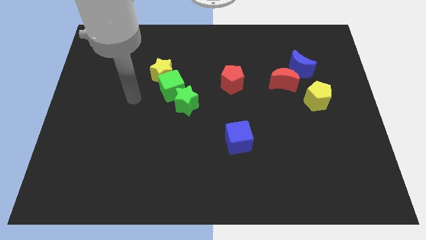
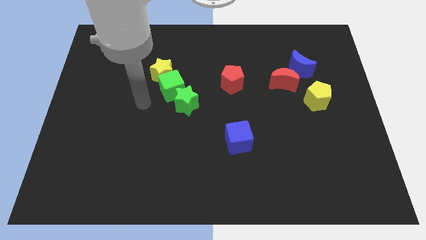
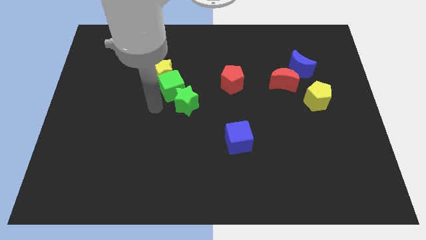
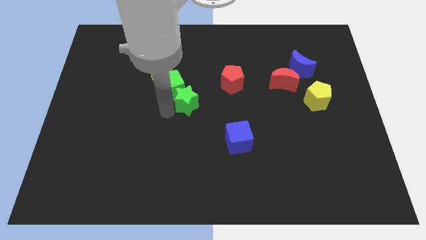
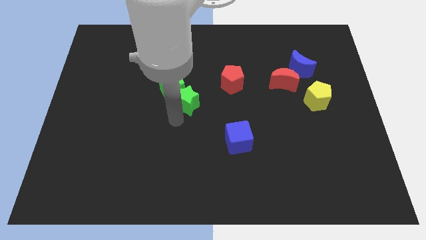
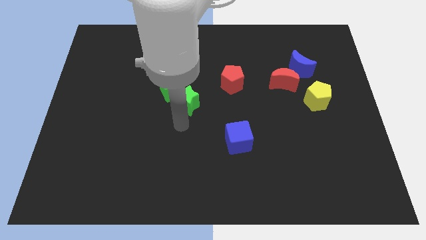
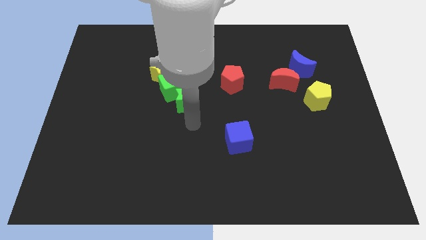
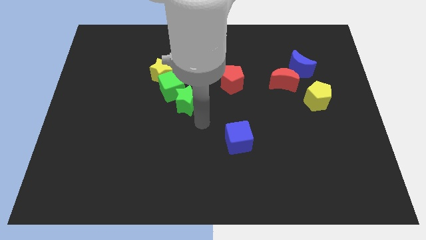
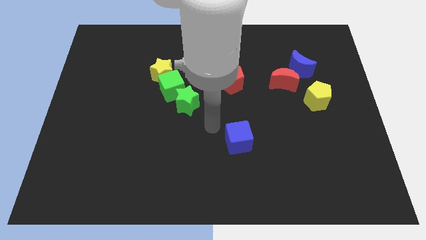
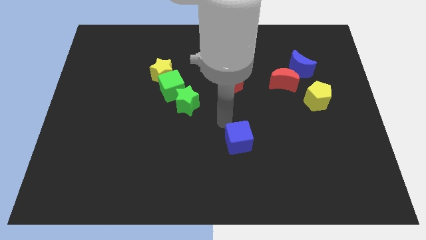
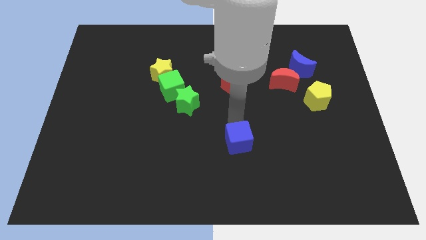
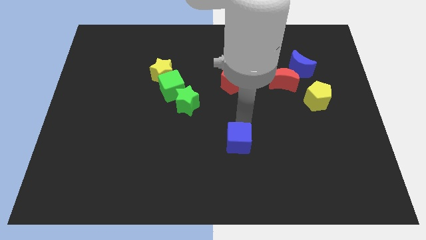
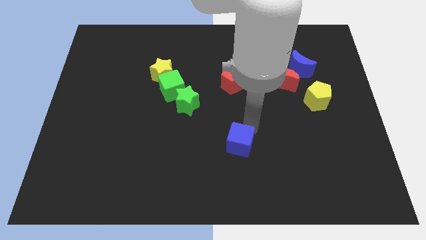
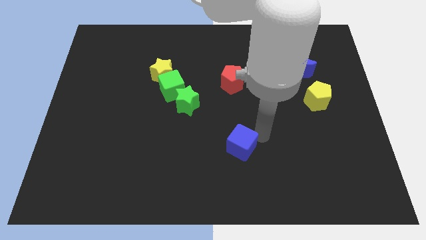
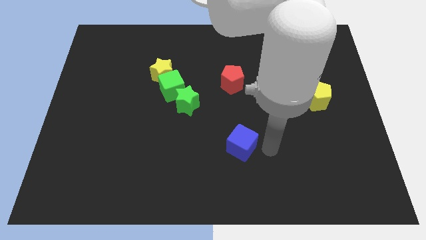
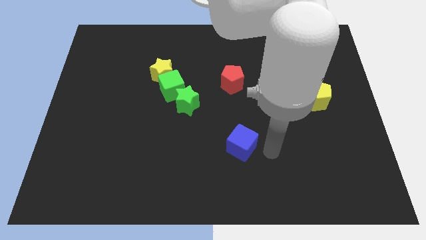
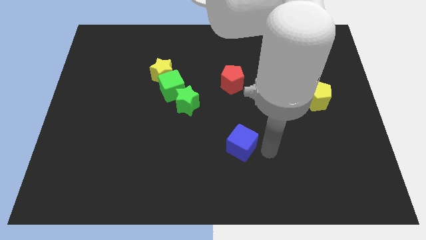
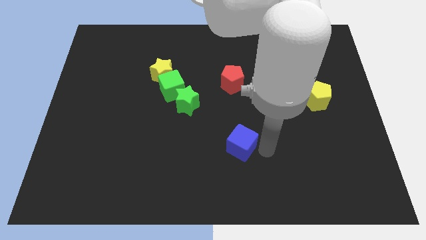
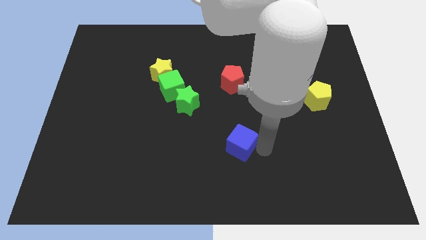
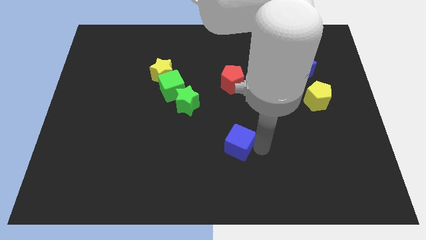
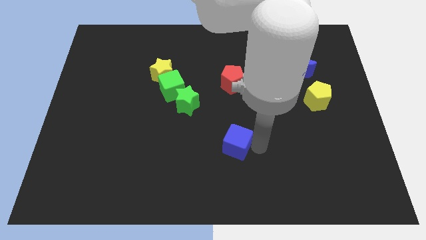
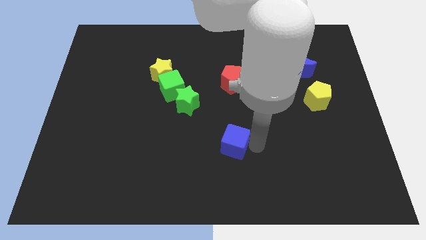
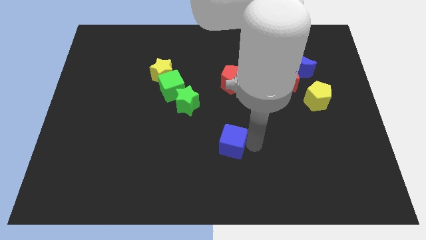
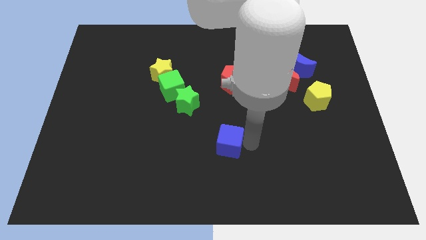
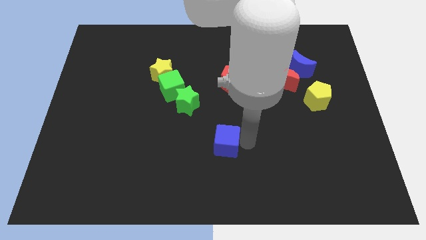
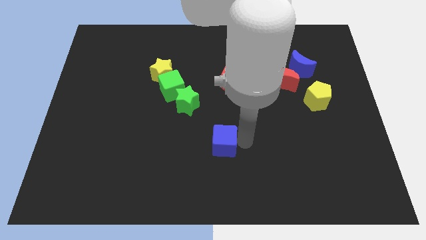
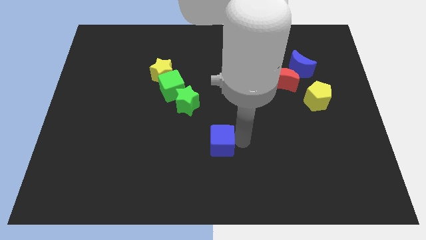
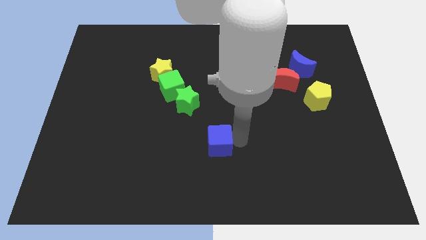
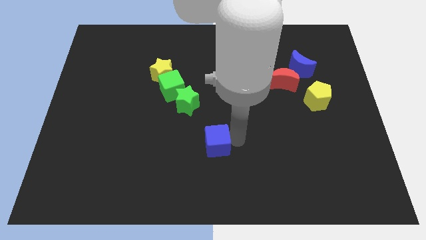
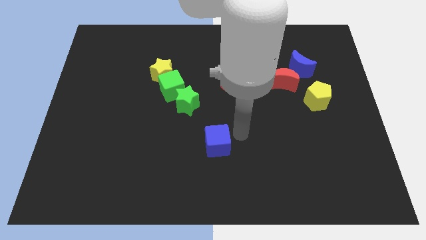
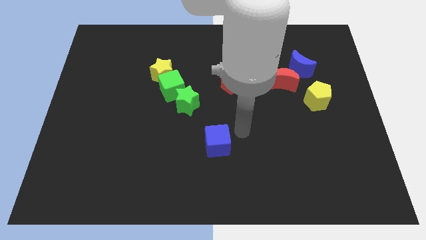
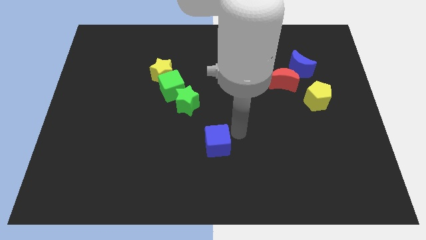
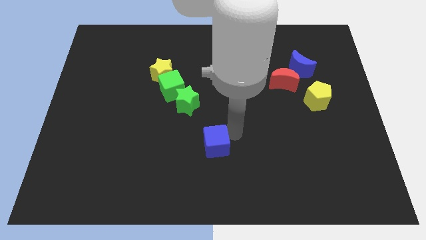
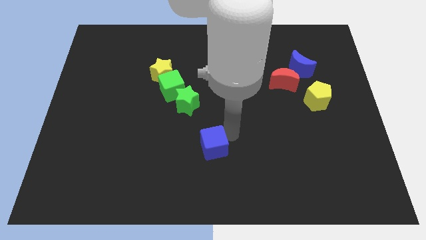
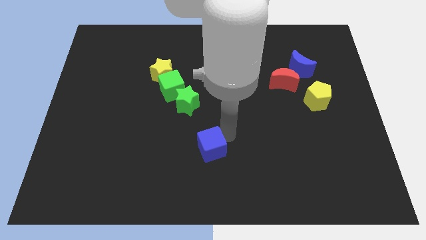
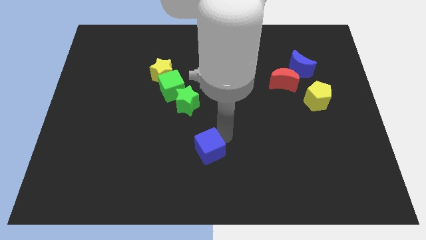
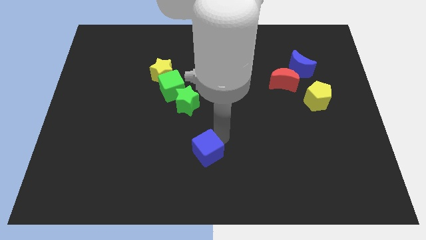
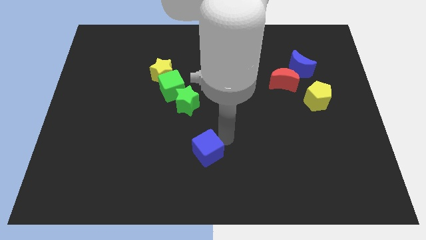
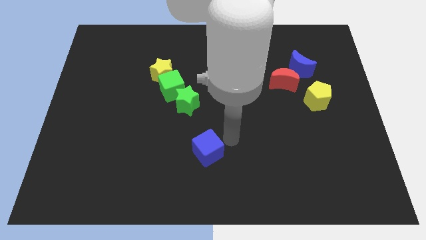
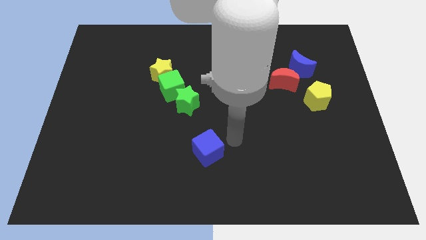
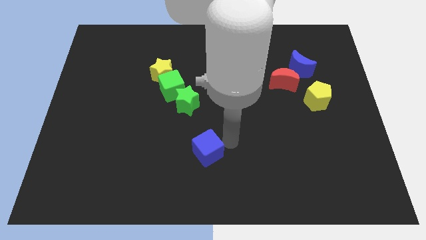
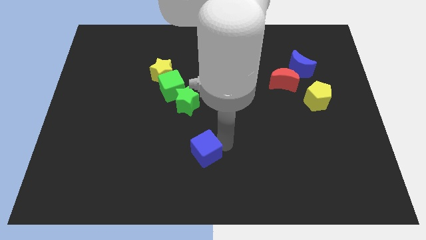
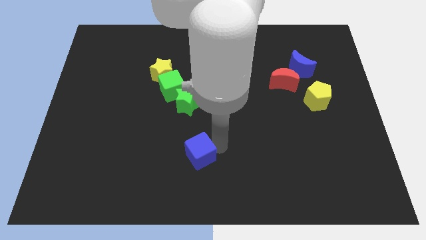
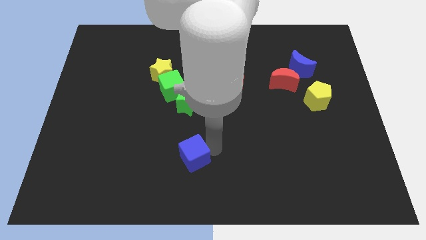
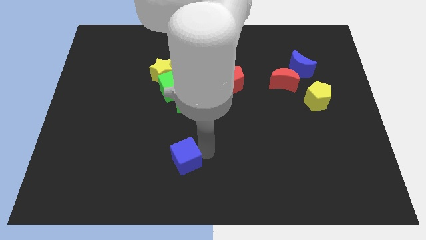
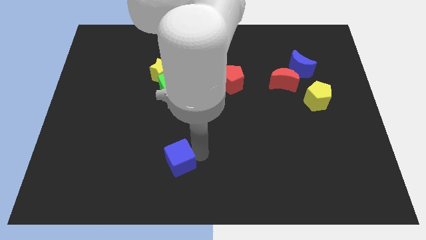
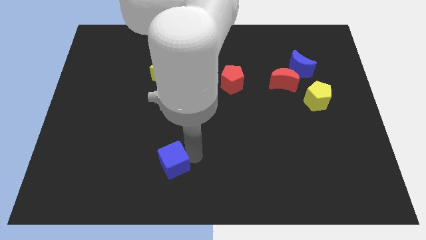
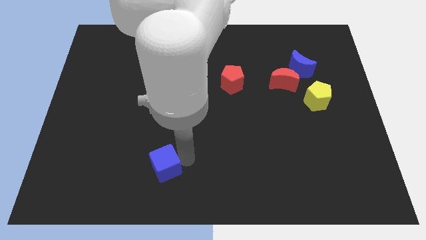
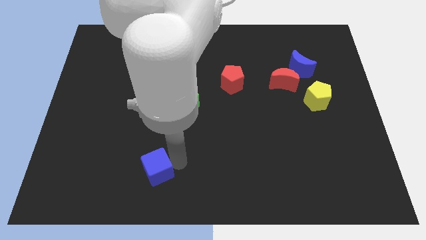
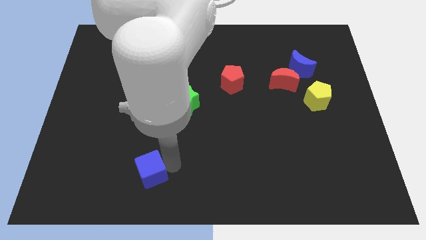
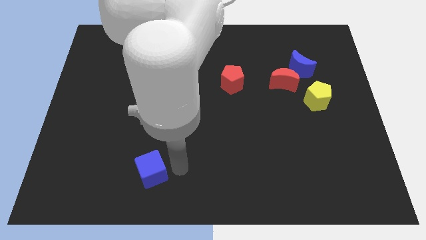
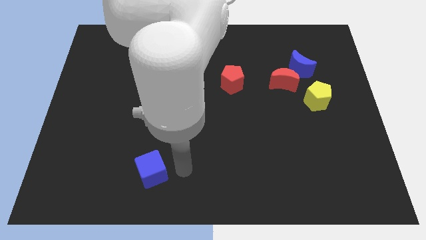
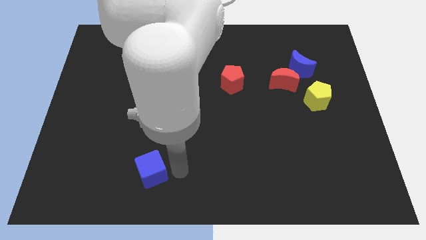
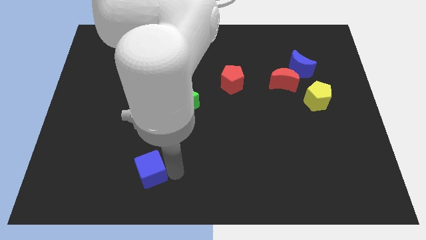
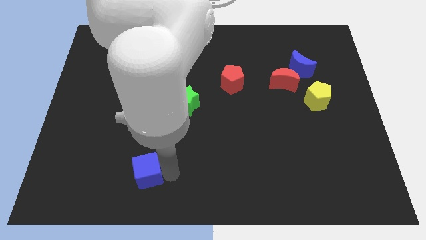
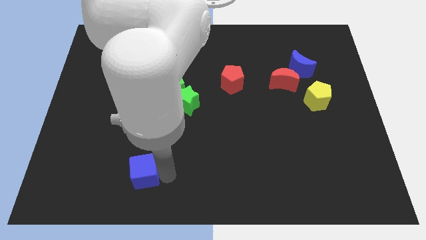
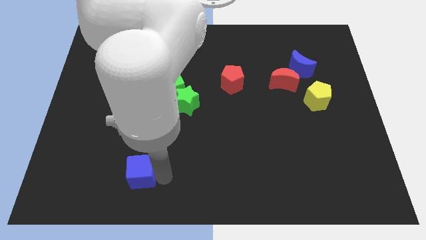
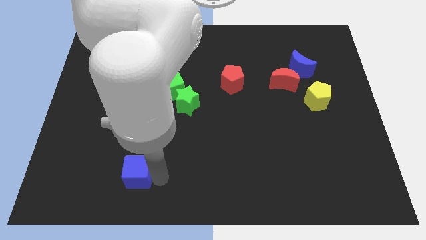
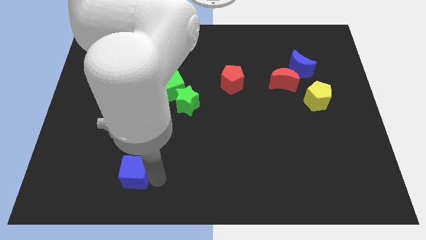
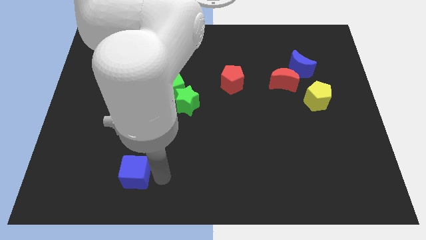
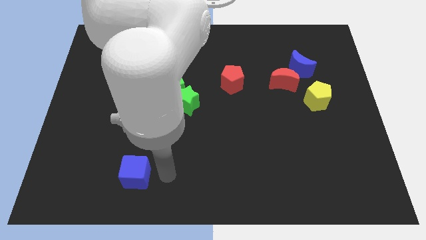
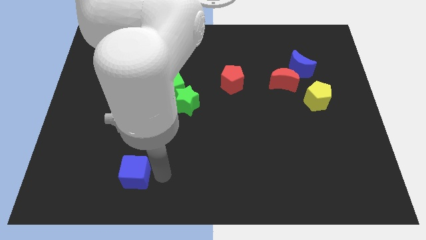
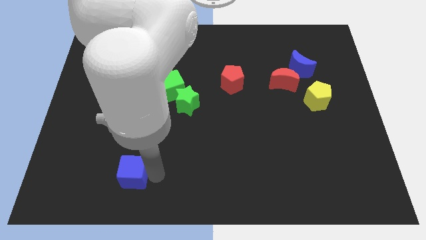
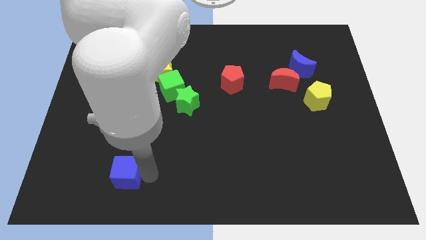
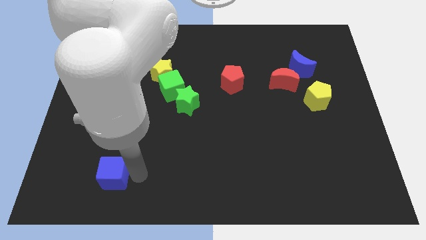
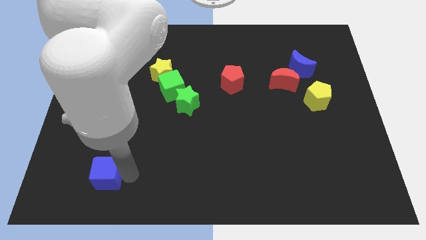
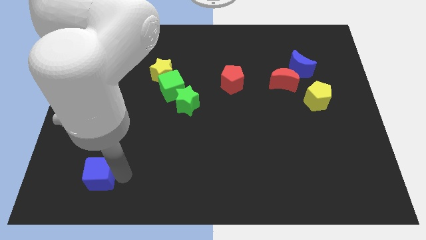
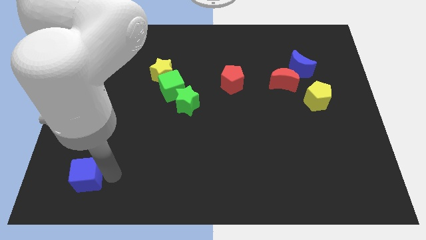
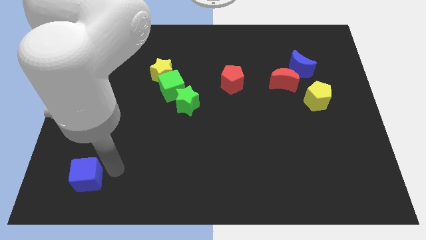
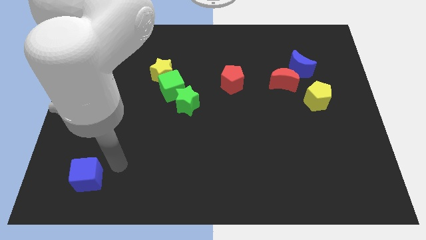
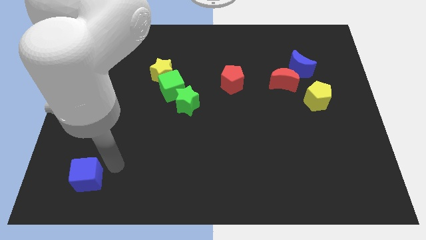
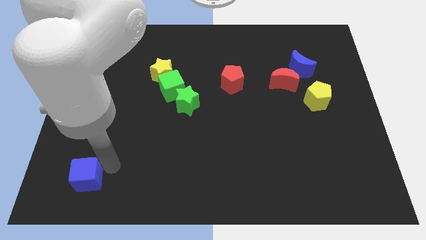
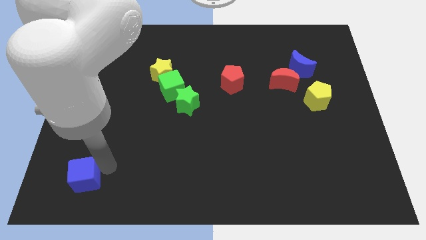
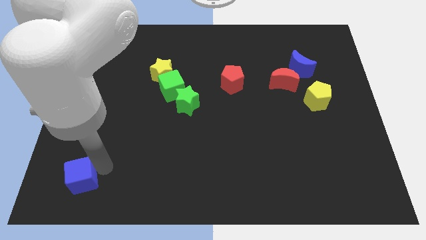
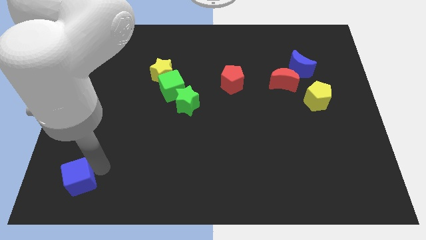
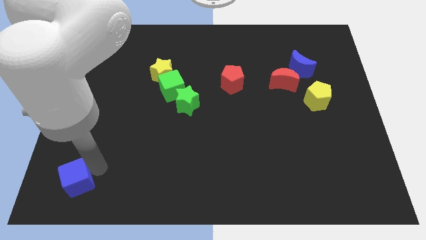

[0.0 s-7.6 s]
move the blue cube to the lower left corner
